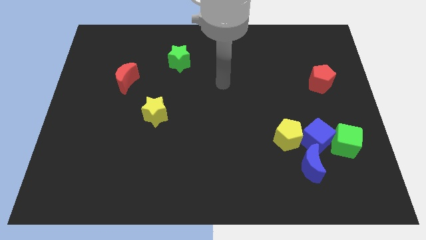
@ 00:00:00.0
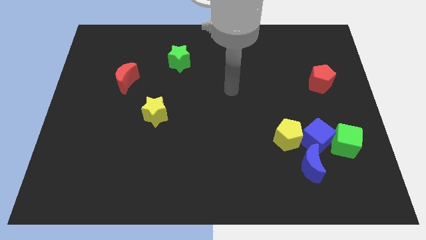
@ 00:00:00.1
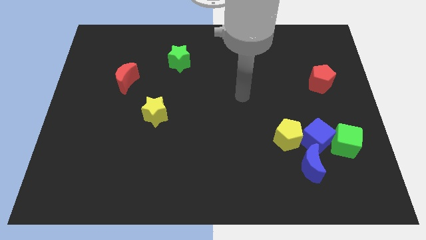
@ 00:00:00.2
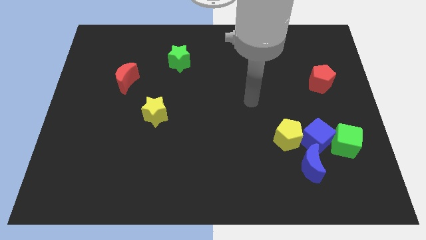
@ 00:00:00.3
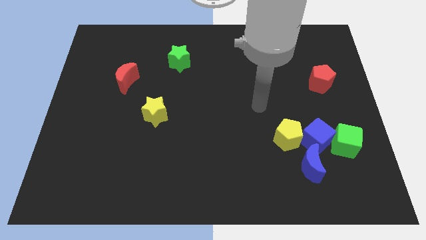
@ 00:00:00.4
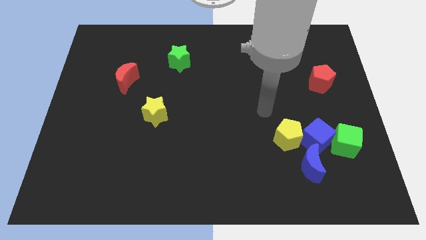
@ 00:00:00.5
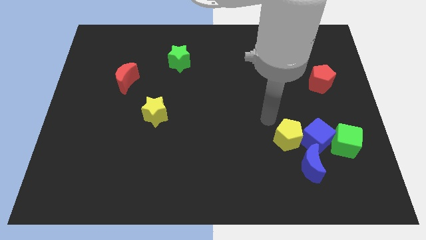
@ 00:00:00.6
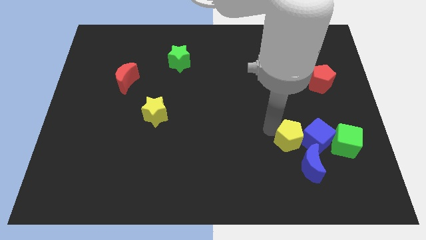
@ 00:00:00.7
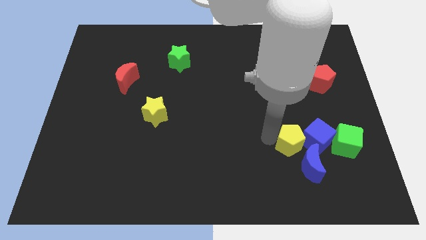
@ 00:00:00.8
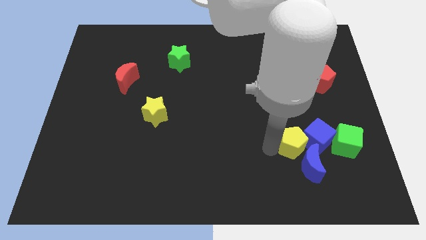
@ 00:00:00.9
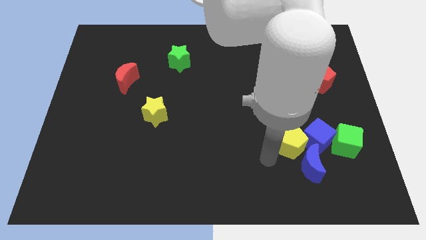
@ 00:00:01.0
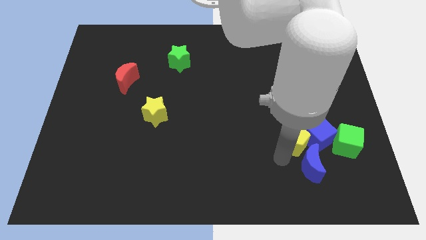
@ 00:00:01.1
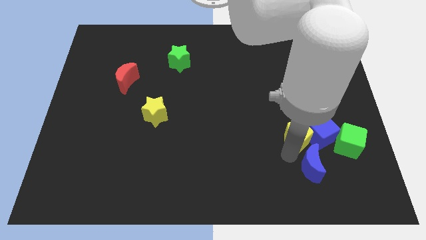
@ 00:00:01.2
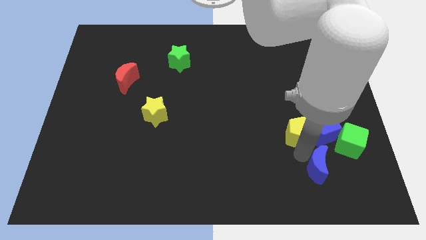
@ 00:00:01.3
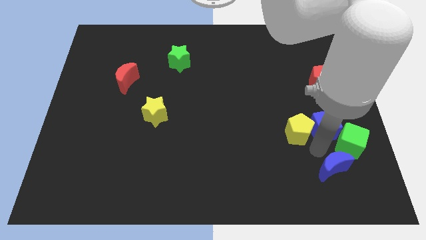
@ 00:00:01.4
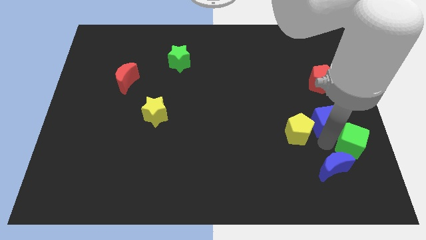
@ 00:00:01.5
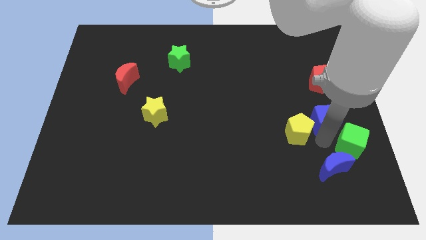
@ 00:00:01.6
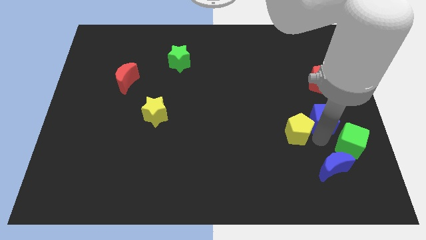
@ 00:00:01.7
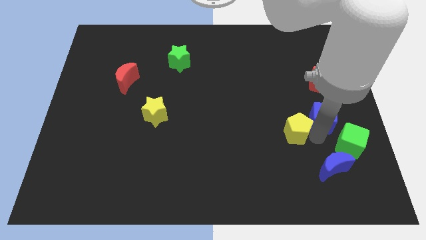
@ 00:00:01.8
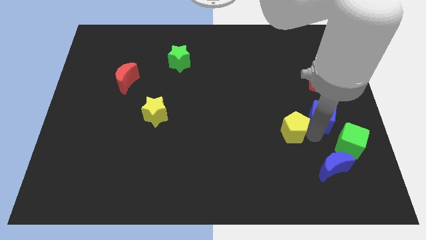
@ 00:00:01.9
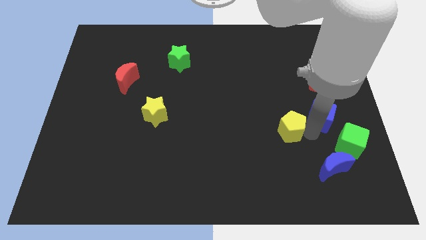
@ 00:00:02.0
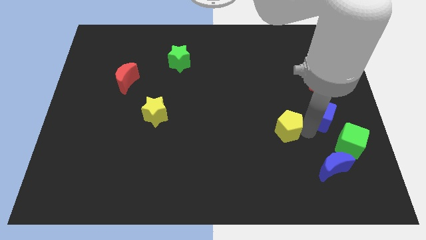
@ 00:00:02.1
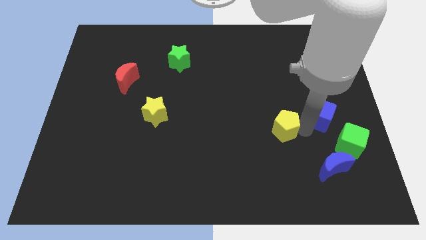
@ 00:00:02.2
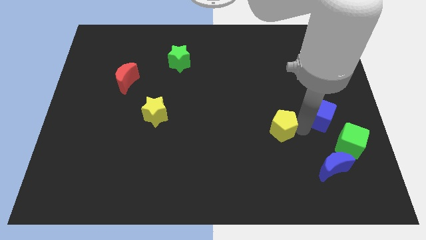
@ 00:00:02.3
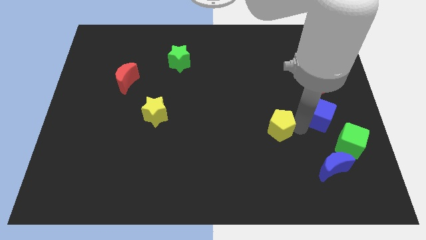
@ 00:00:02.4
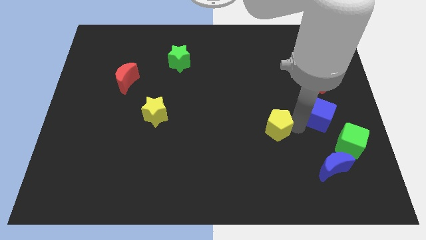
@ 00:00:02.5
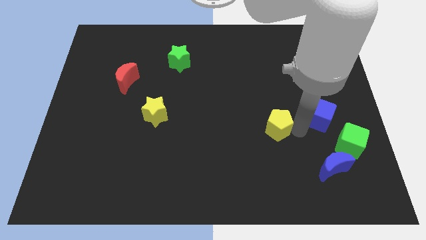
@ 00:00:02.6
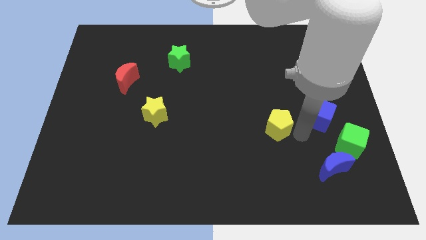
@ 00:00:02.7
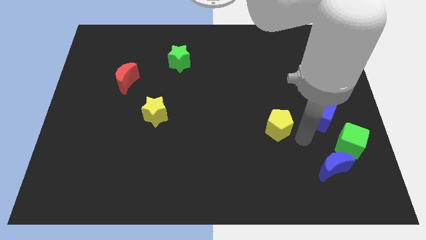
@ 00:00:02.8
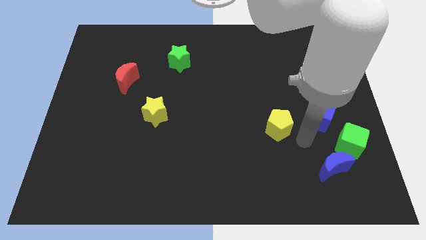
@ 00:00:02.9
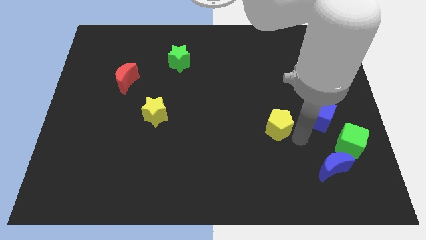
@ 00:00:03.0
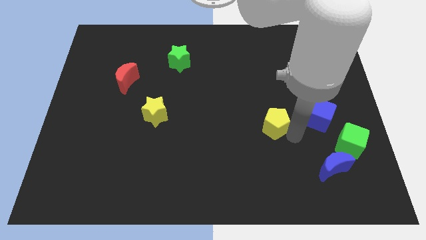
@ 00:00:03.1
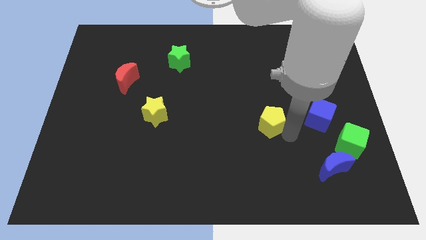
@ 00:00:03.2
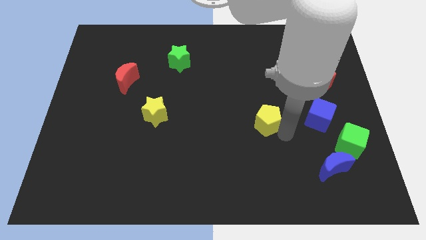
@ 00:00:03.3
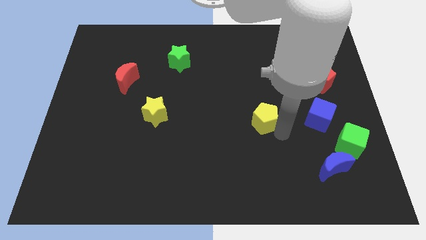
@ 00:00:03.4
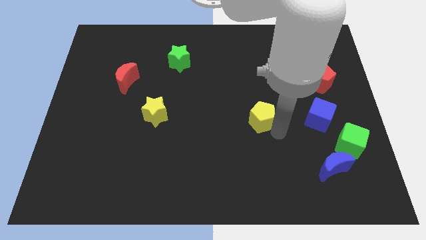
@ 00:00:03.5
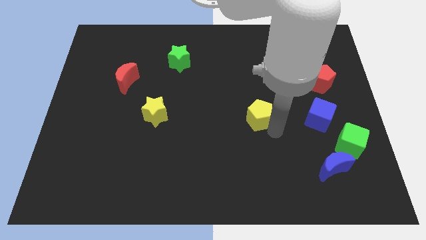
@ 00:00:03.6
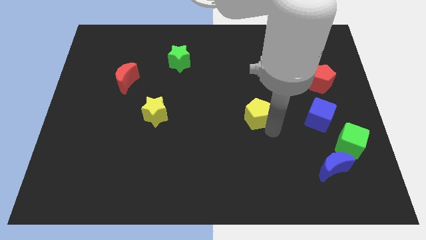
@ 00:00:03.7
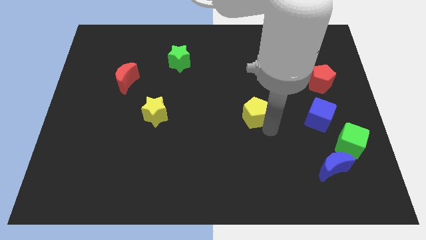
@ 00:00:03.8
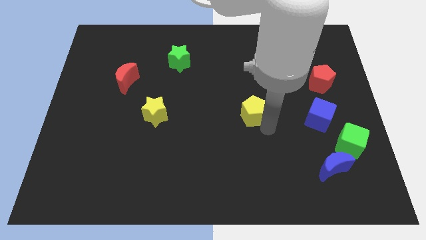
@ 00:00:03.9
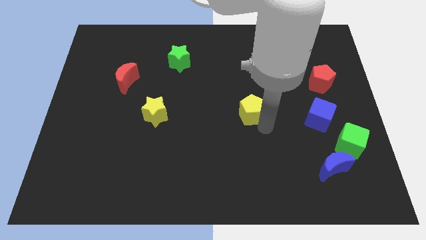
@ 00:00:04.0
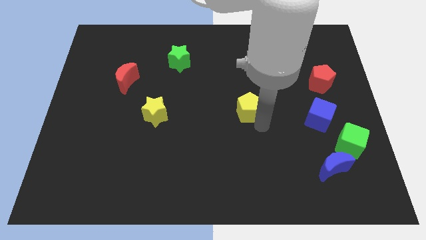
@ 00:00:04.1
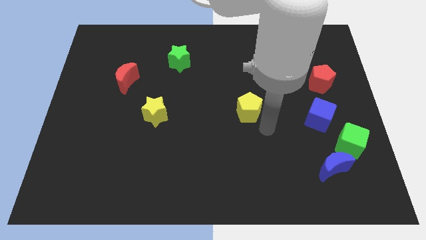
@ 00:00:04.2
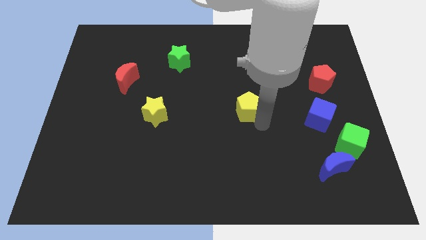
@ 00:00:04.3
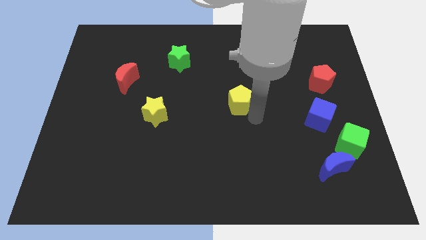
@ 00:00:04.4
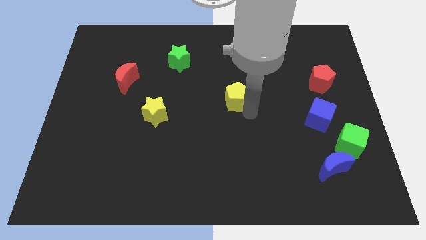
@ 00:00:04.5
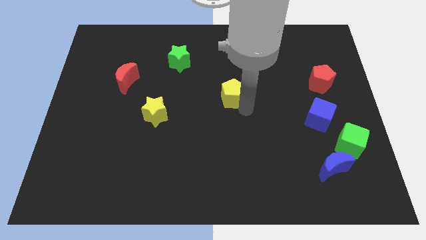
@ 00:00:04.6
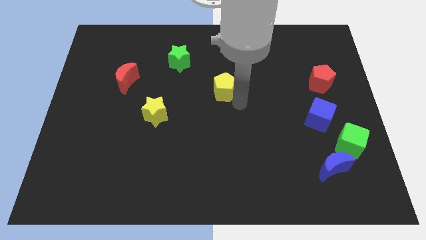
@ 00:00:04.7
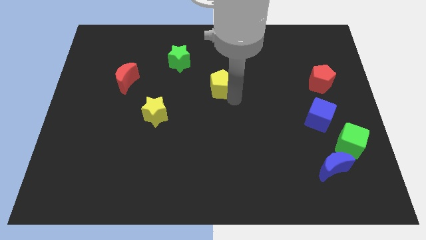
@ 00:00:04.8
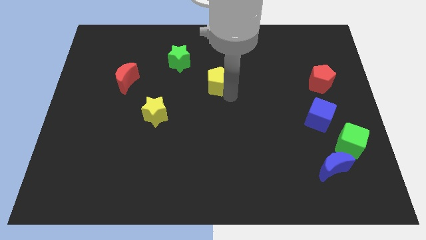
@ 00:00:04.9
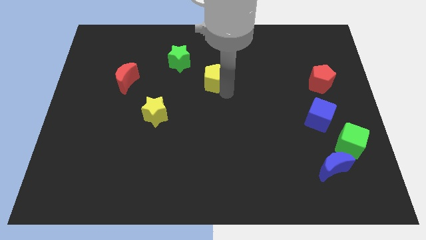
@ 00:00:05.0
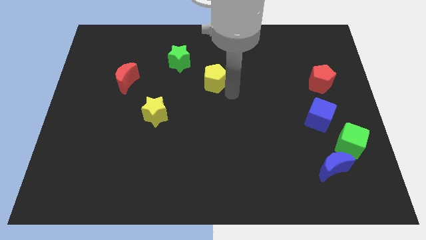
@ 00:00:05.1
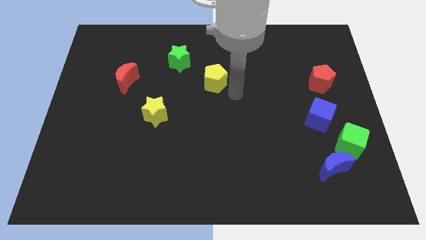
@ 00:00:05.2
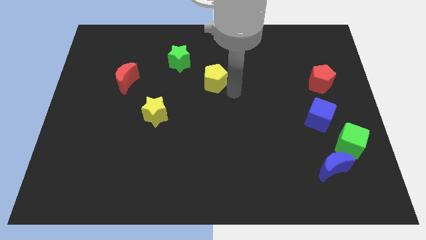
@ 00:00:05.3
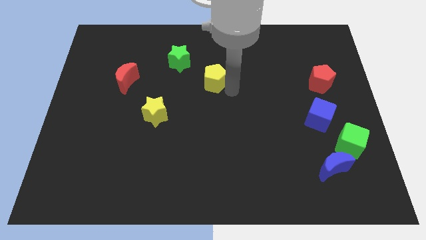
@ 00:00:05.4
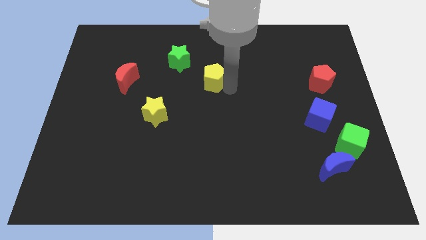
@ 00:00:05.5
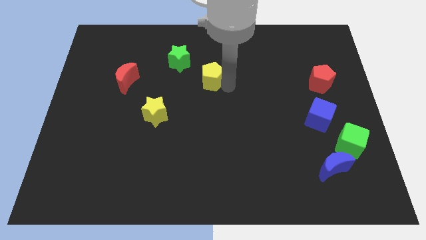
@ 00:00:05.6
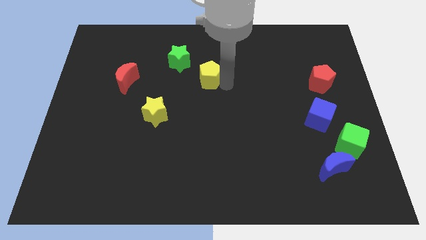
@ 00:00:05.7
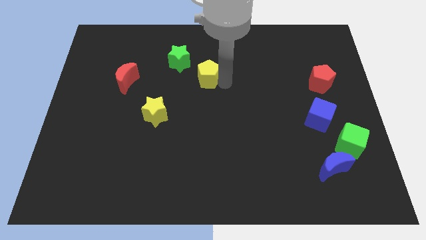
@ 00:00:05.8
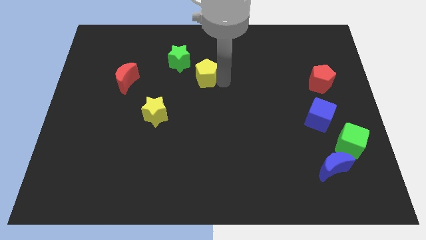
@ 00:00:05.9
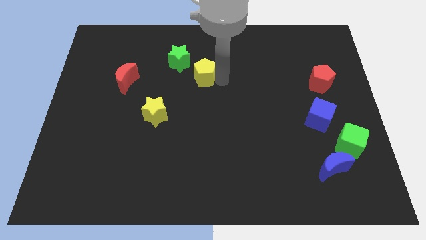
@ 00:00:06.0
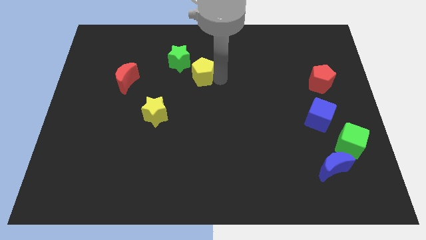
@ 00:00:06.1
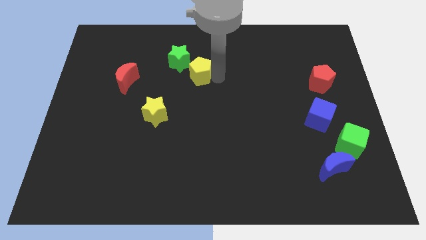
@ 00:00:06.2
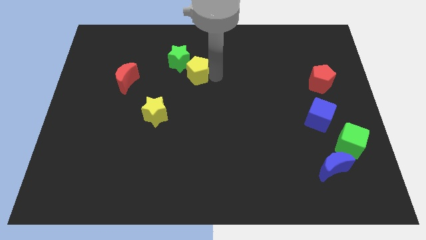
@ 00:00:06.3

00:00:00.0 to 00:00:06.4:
move the yellow pentagon close to the green star
